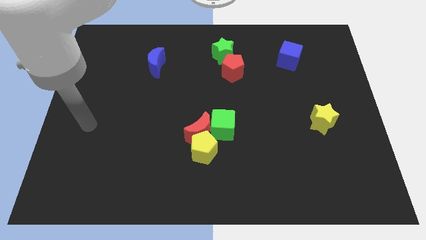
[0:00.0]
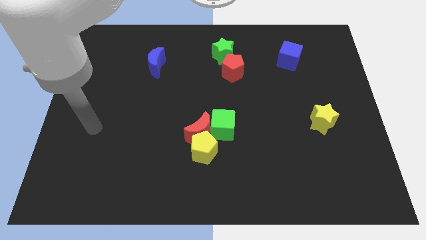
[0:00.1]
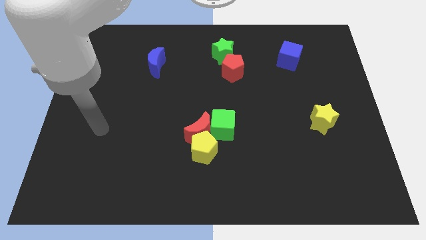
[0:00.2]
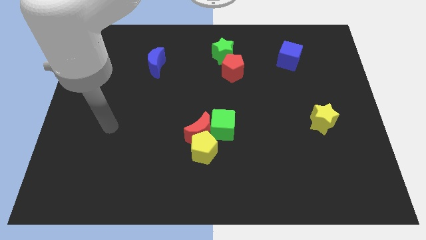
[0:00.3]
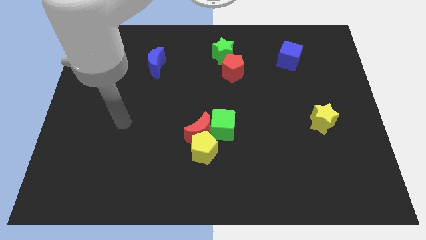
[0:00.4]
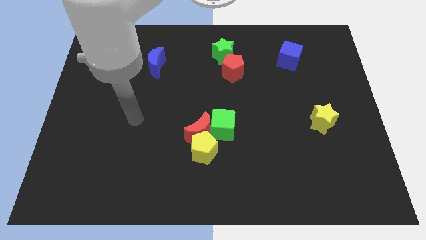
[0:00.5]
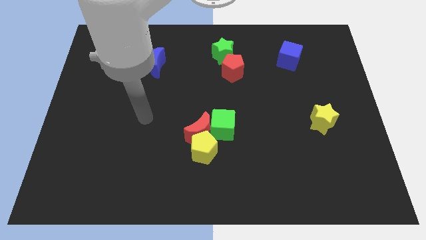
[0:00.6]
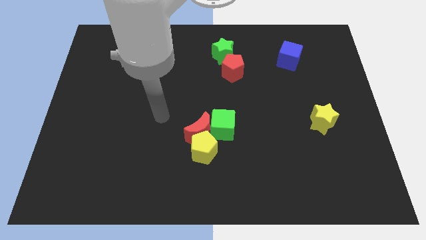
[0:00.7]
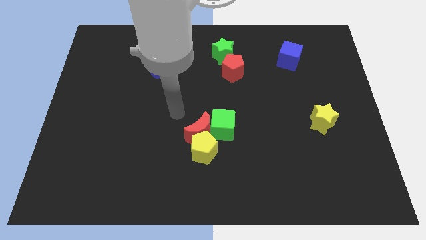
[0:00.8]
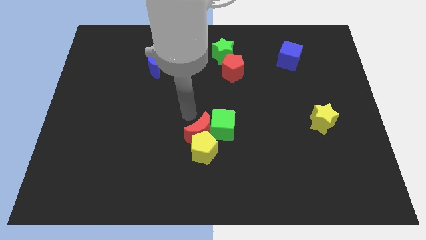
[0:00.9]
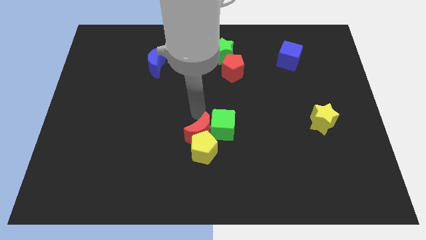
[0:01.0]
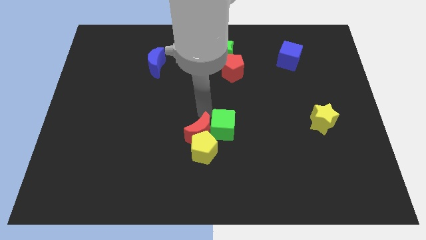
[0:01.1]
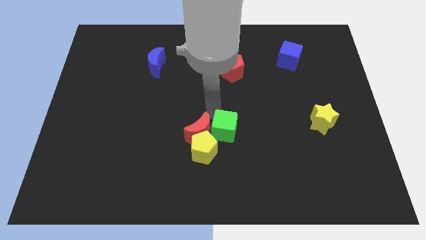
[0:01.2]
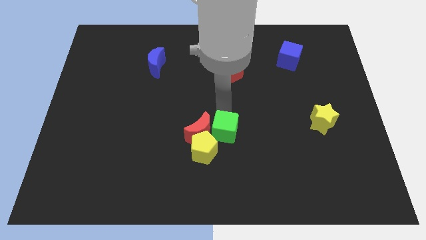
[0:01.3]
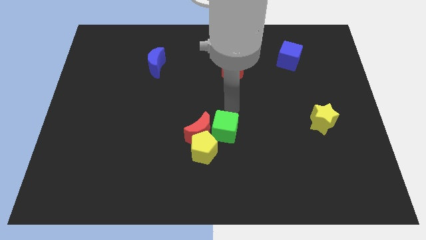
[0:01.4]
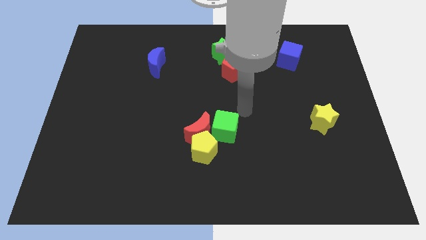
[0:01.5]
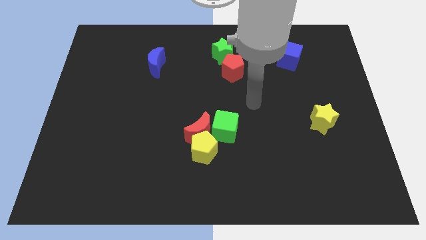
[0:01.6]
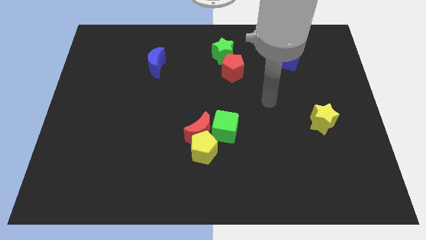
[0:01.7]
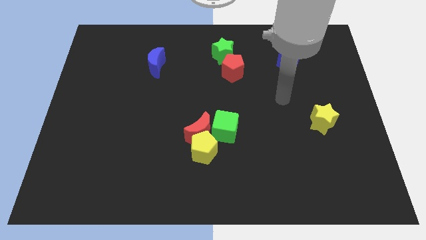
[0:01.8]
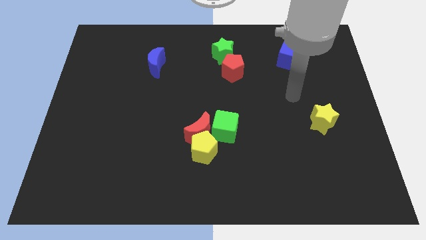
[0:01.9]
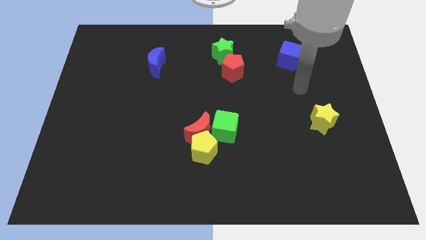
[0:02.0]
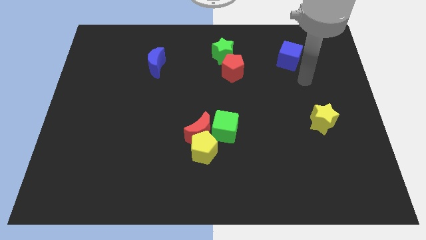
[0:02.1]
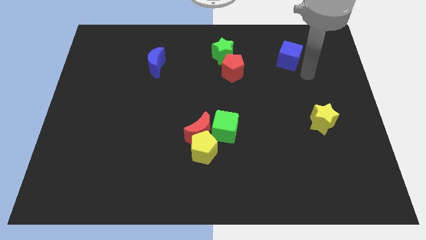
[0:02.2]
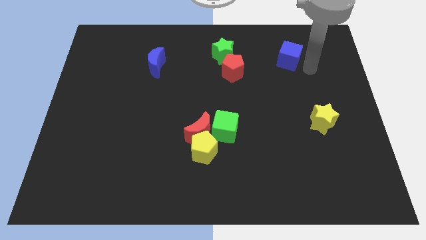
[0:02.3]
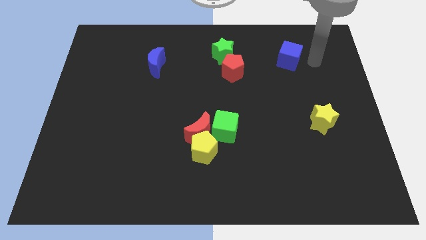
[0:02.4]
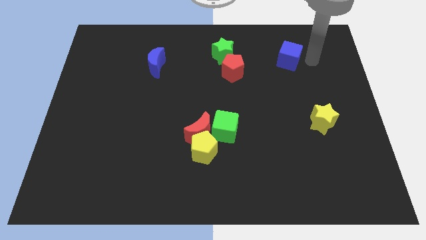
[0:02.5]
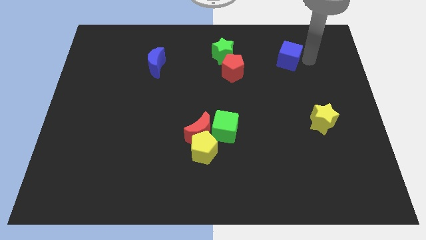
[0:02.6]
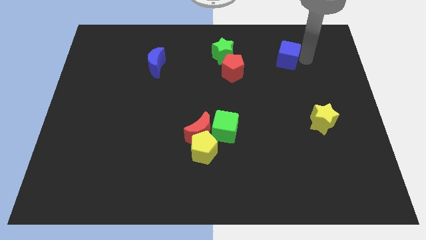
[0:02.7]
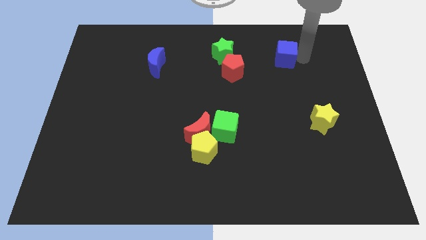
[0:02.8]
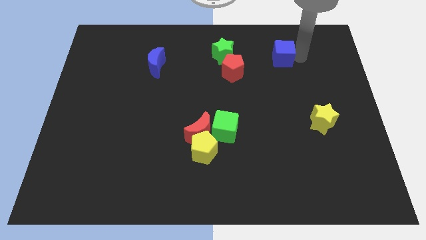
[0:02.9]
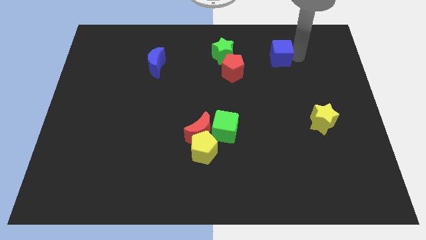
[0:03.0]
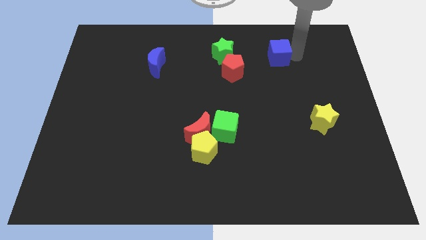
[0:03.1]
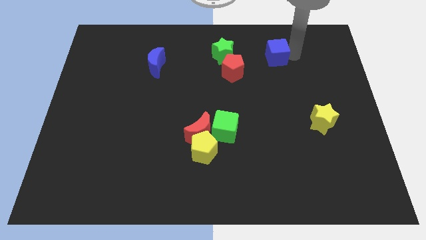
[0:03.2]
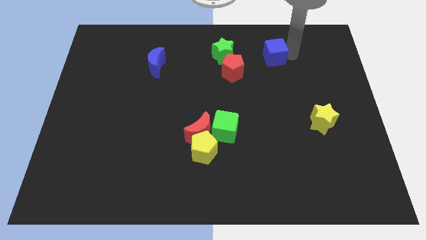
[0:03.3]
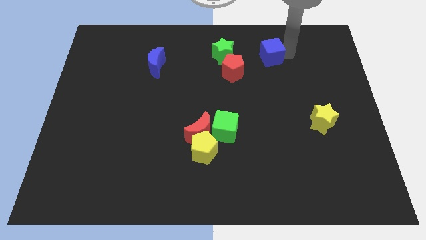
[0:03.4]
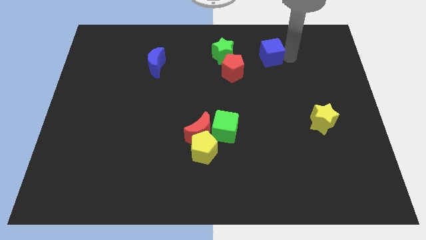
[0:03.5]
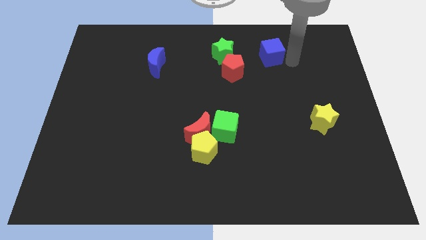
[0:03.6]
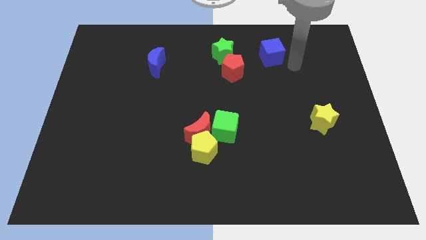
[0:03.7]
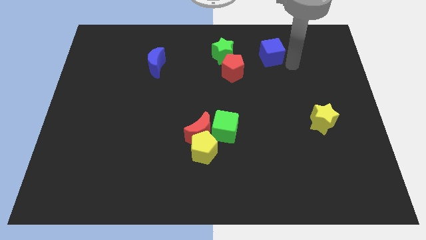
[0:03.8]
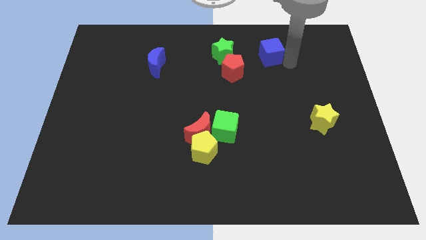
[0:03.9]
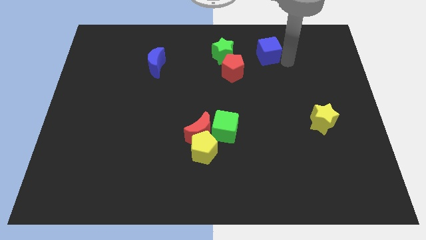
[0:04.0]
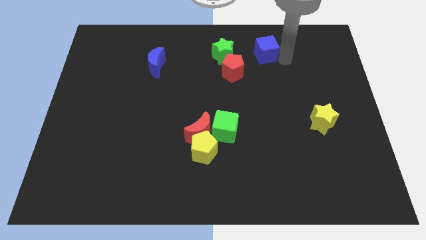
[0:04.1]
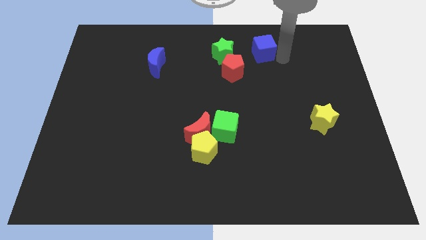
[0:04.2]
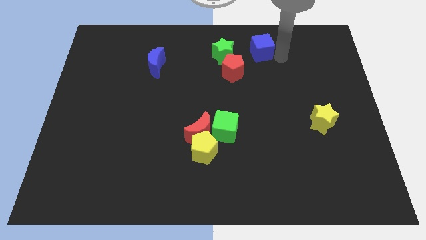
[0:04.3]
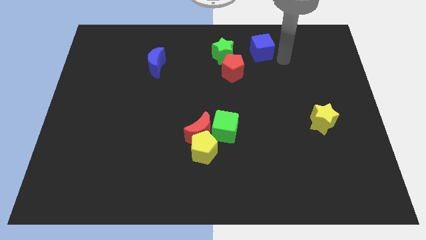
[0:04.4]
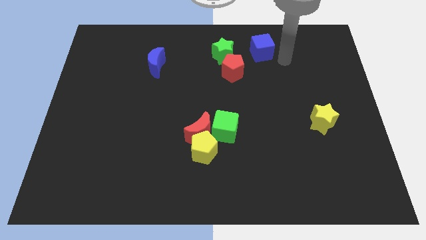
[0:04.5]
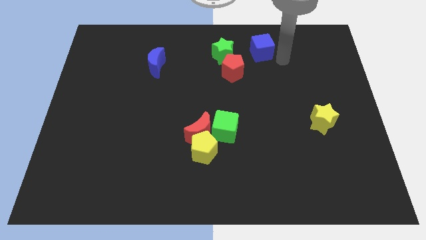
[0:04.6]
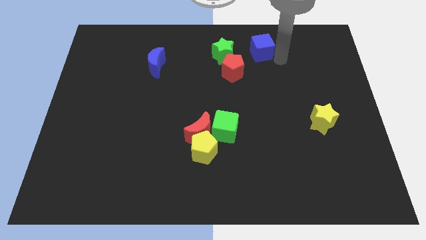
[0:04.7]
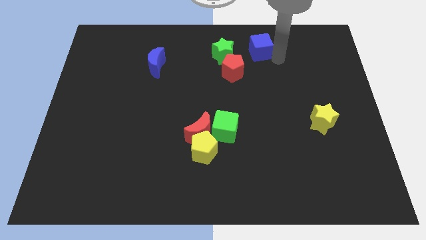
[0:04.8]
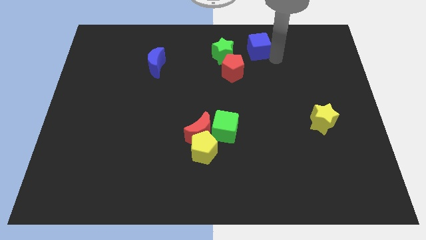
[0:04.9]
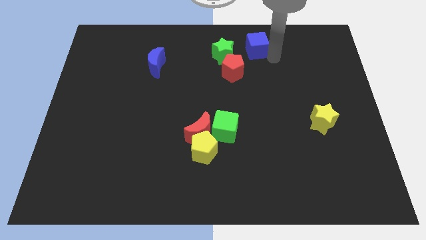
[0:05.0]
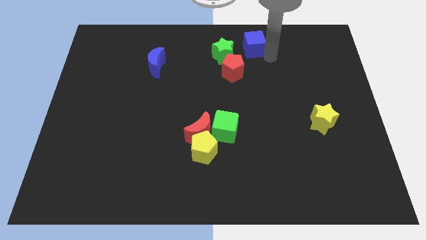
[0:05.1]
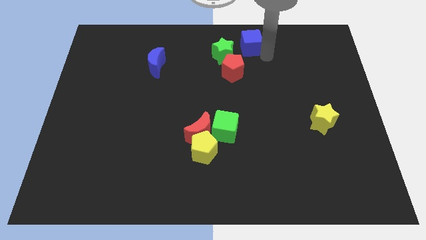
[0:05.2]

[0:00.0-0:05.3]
push the blue cube to the top

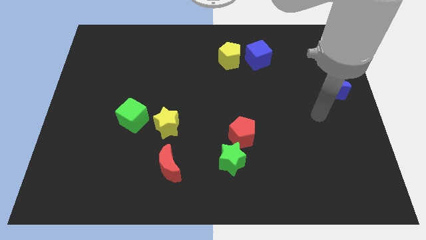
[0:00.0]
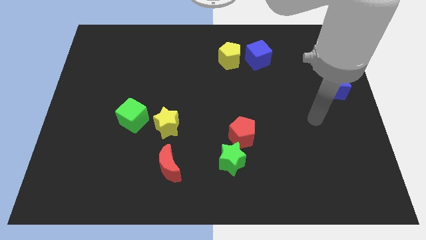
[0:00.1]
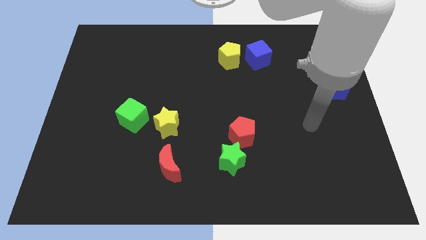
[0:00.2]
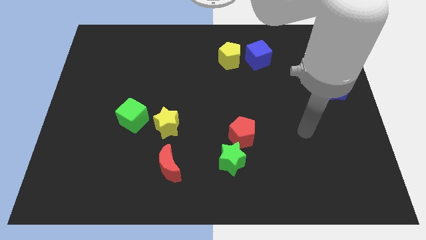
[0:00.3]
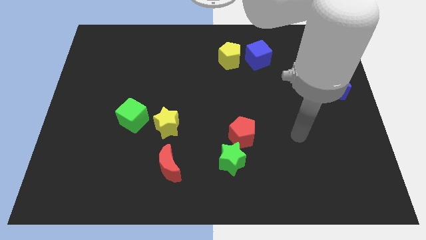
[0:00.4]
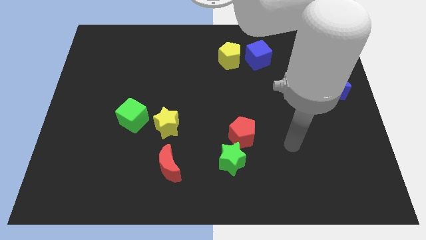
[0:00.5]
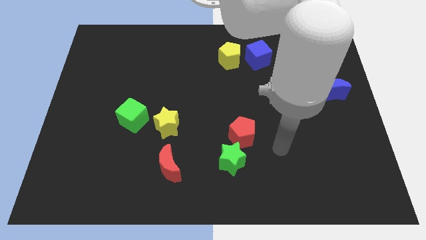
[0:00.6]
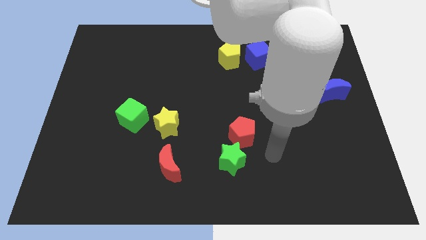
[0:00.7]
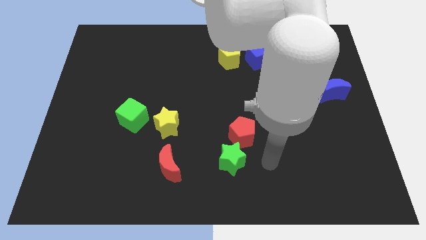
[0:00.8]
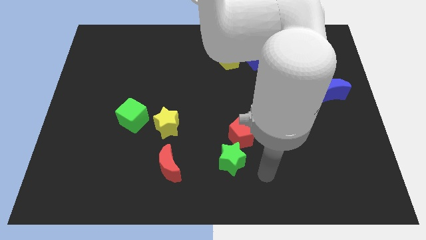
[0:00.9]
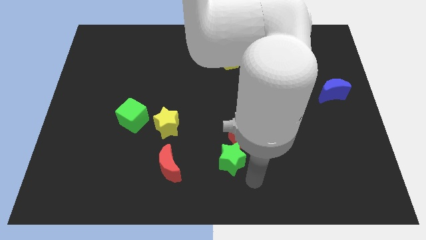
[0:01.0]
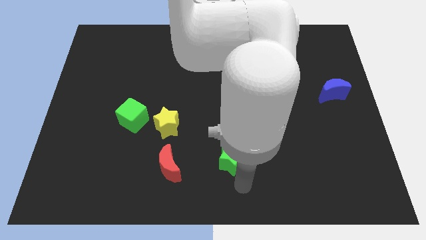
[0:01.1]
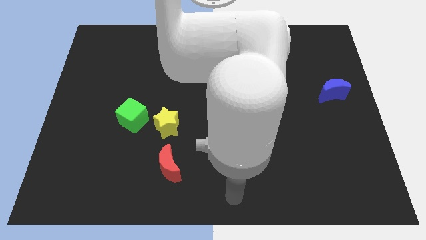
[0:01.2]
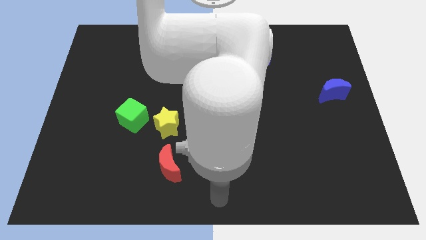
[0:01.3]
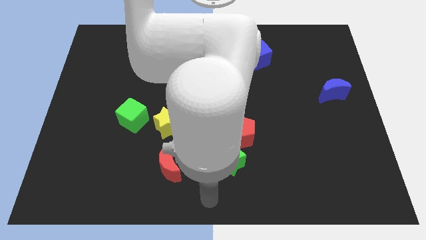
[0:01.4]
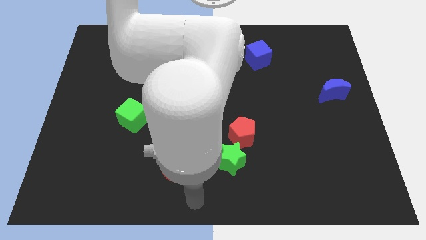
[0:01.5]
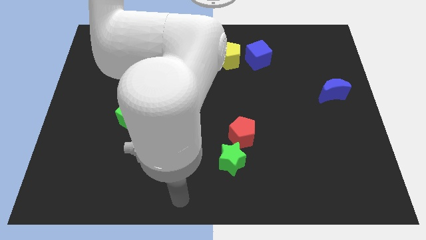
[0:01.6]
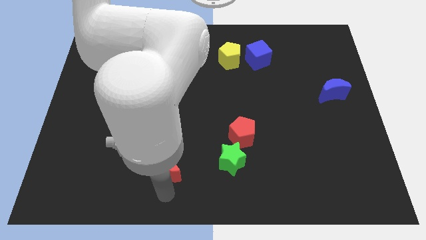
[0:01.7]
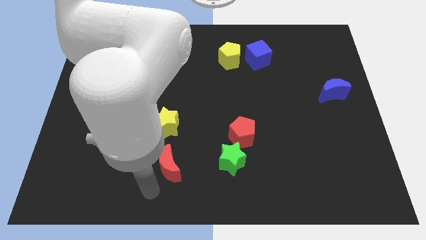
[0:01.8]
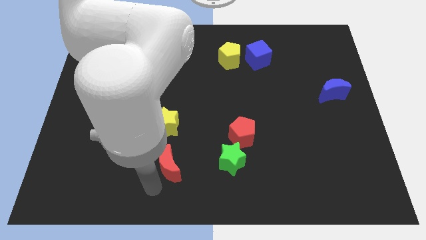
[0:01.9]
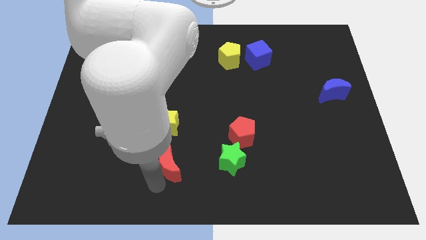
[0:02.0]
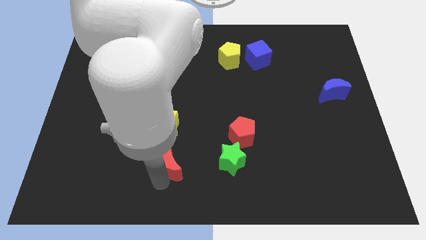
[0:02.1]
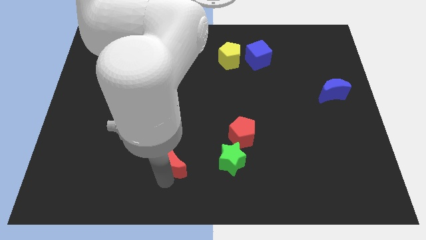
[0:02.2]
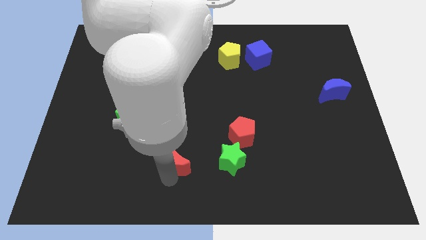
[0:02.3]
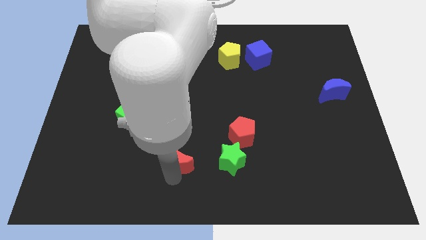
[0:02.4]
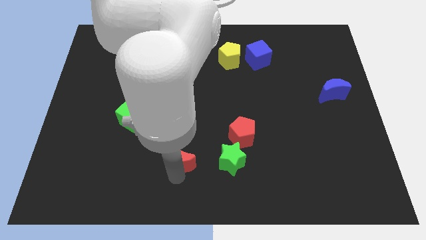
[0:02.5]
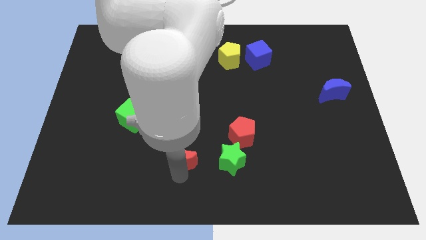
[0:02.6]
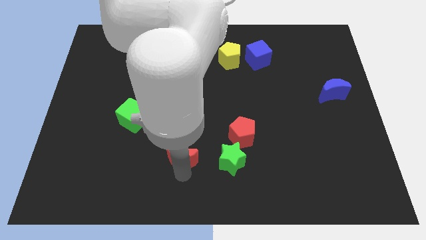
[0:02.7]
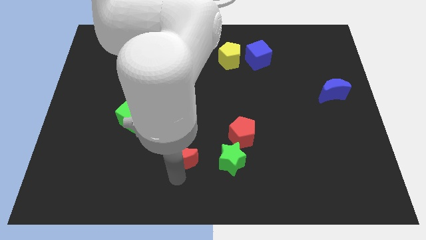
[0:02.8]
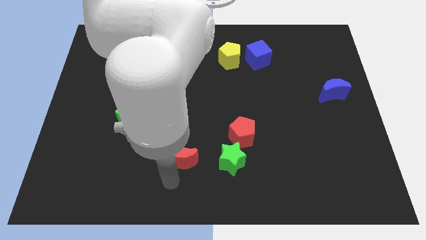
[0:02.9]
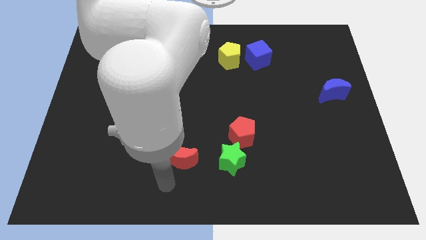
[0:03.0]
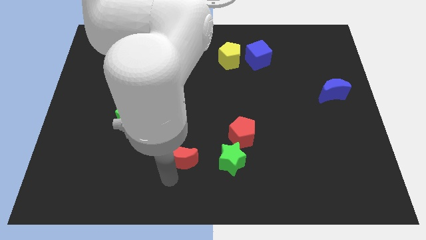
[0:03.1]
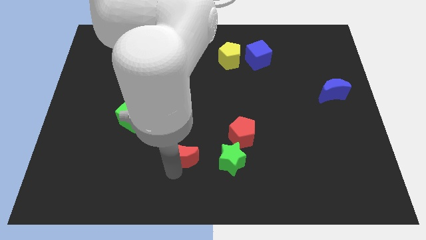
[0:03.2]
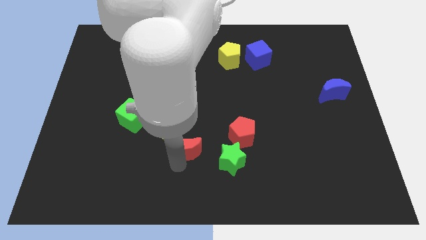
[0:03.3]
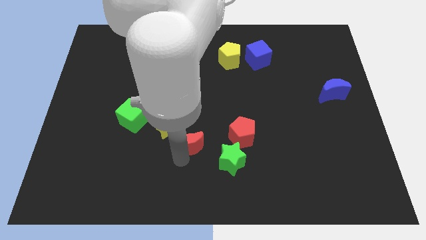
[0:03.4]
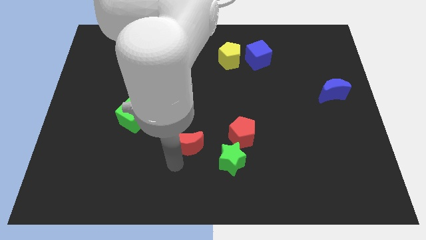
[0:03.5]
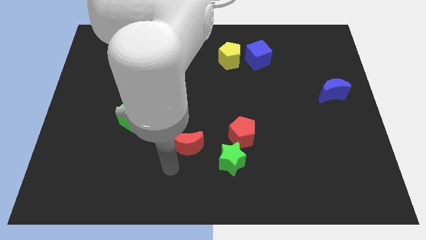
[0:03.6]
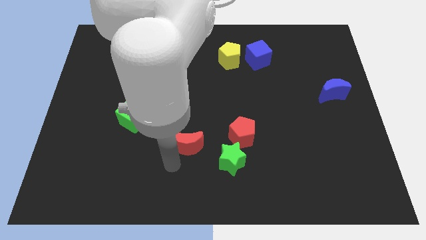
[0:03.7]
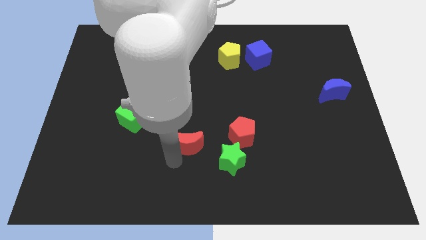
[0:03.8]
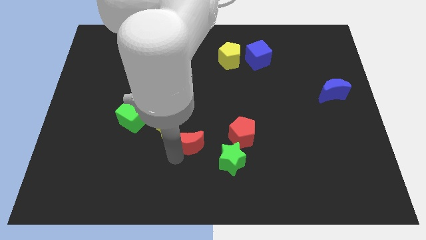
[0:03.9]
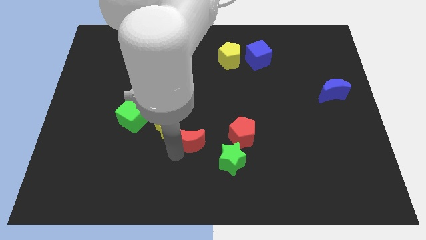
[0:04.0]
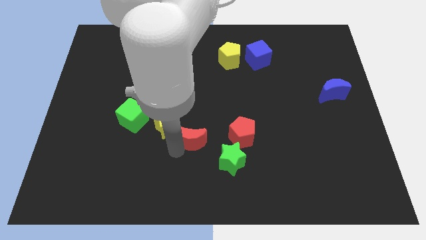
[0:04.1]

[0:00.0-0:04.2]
push the red moon to the center
